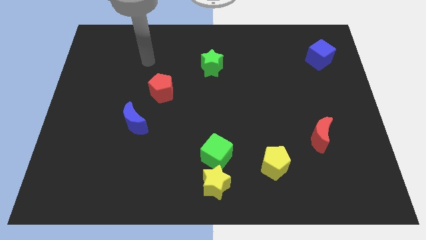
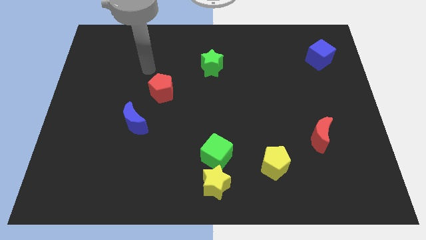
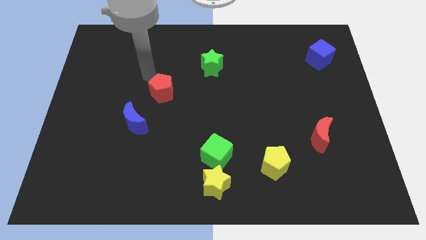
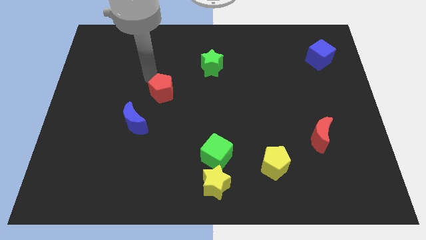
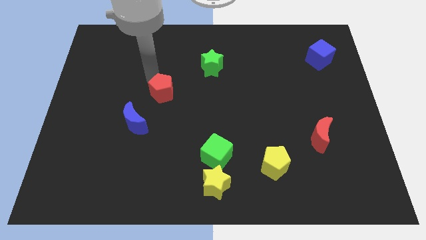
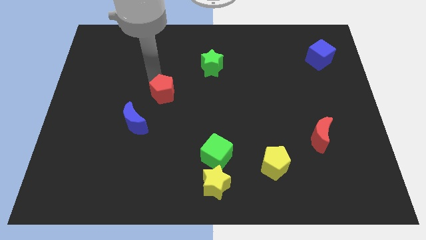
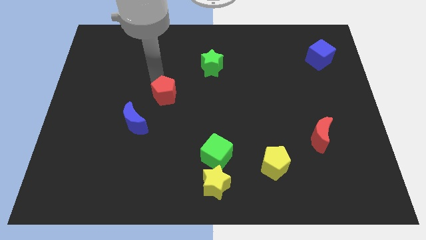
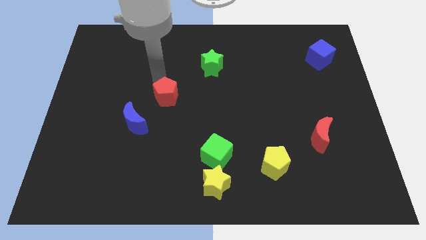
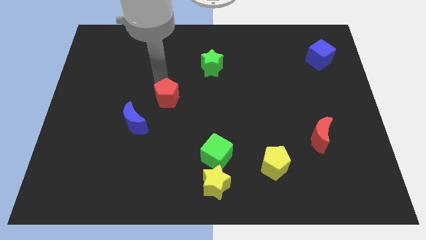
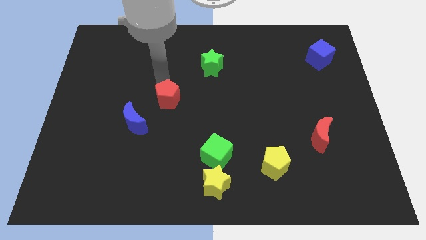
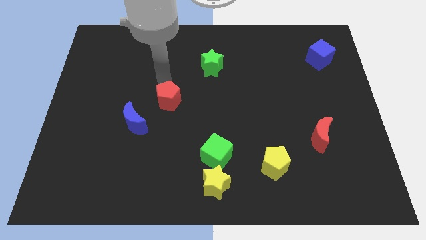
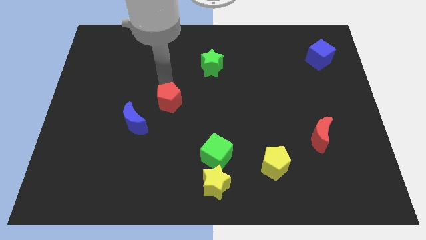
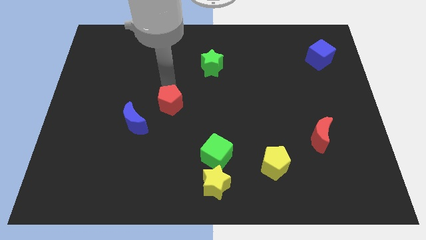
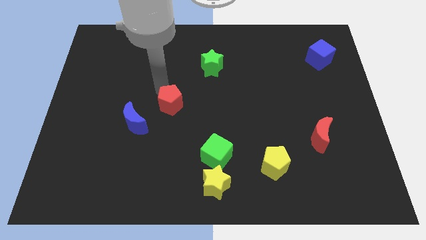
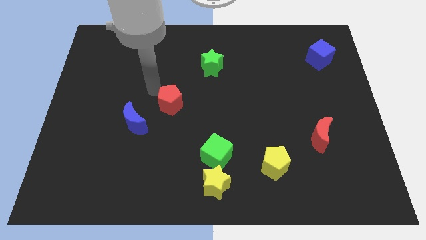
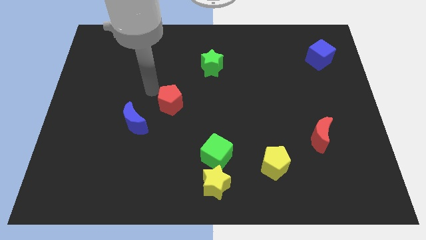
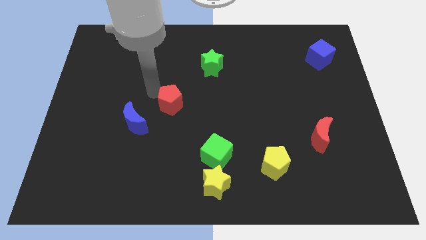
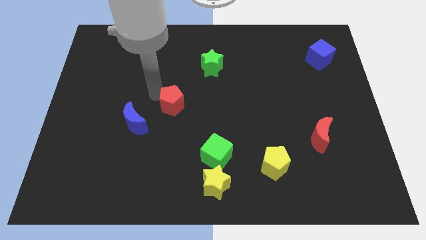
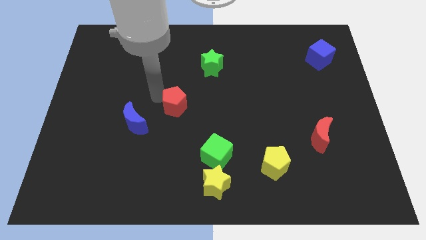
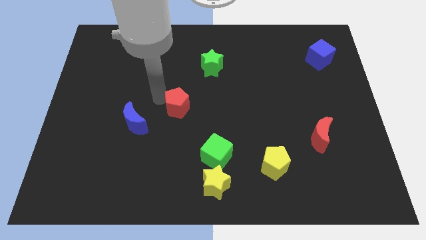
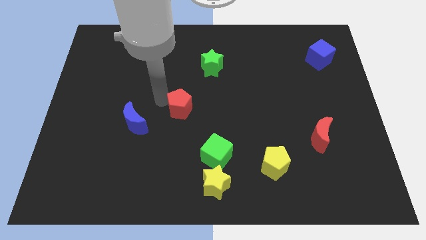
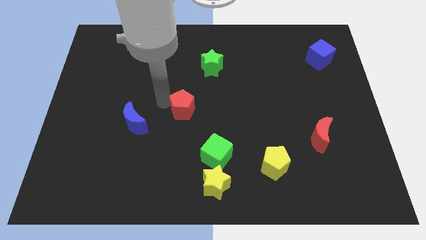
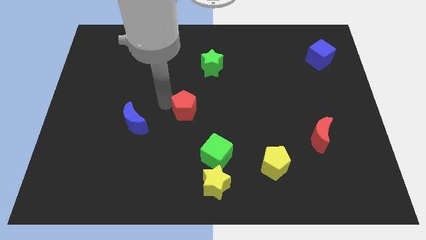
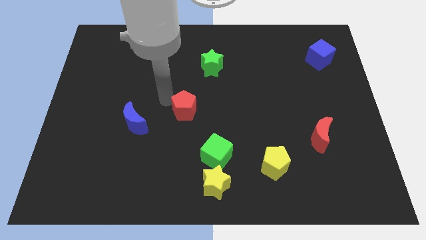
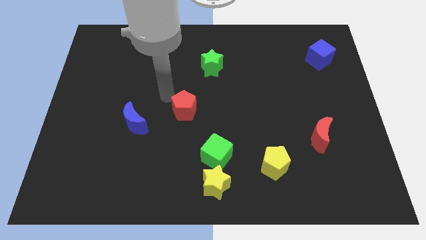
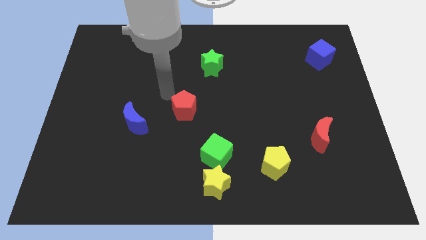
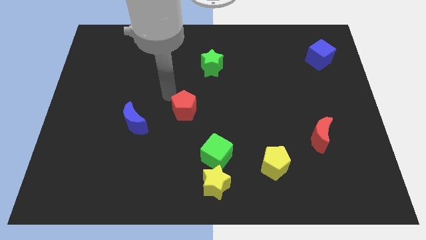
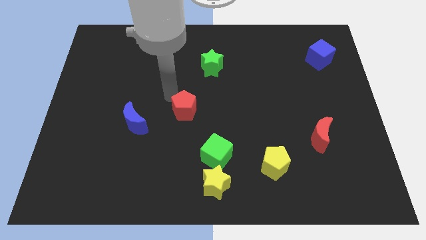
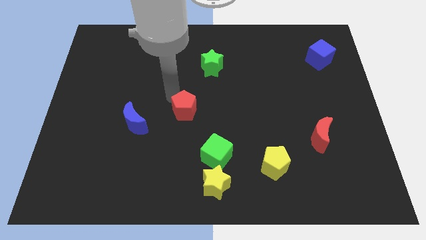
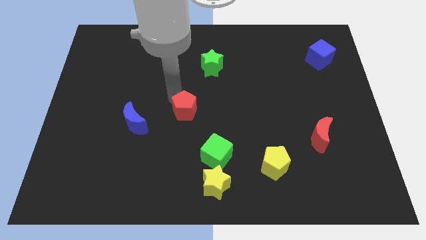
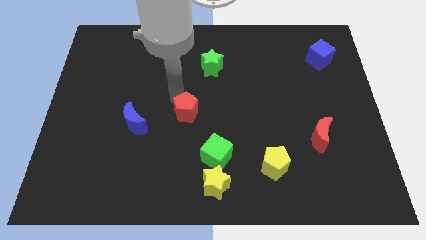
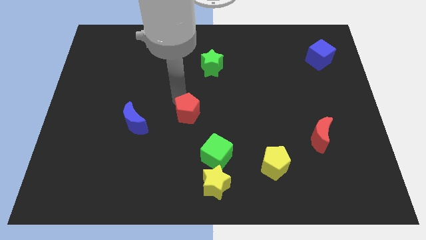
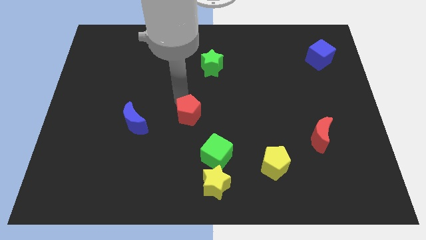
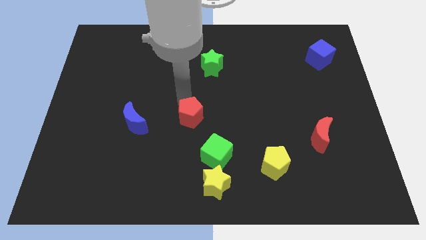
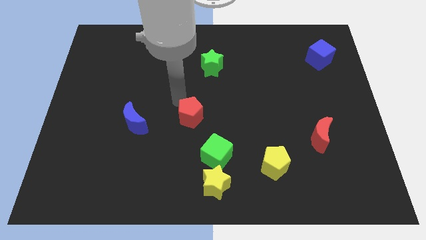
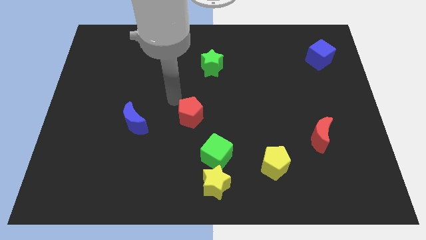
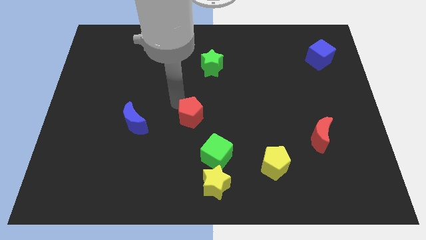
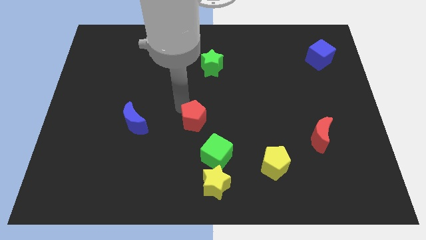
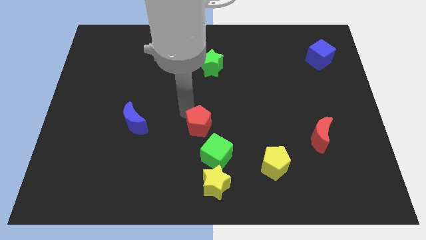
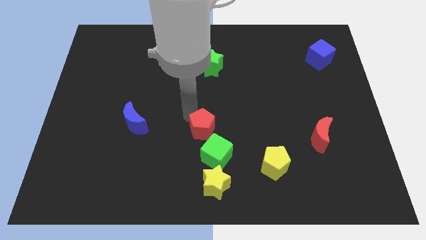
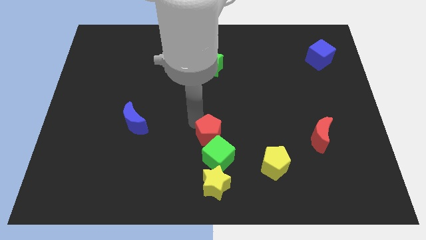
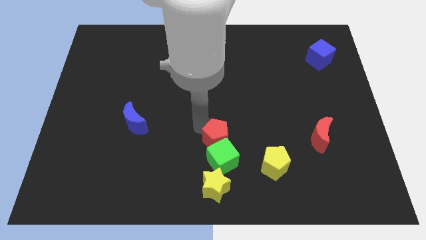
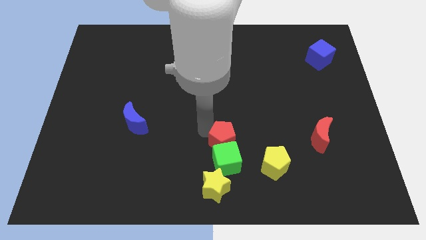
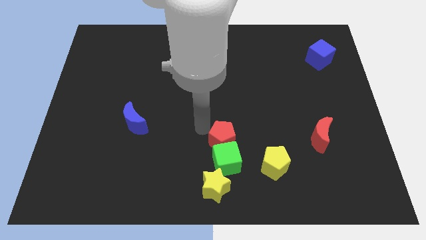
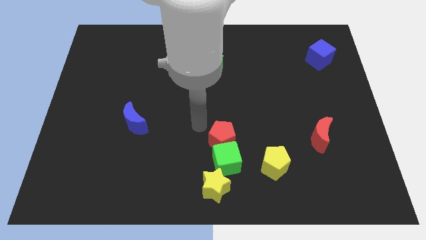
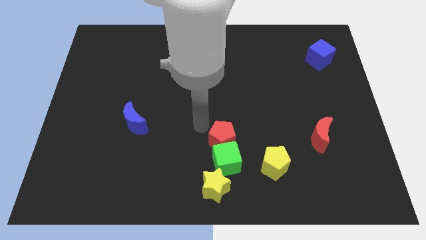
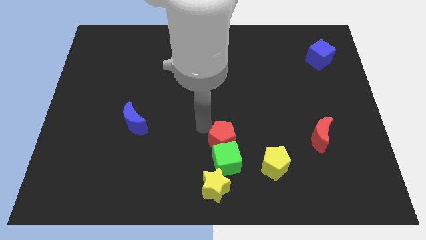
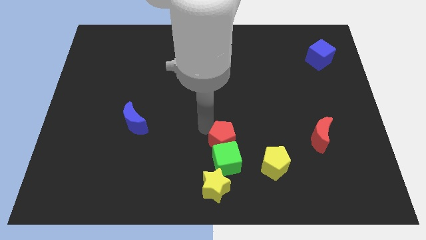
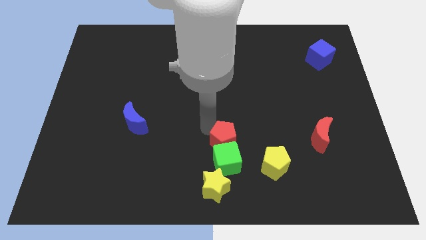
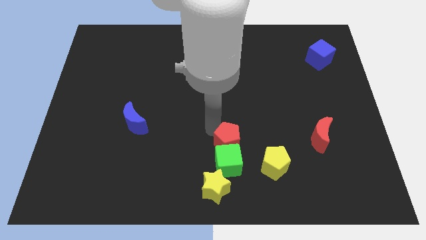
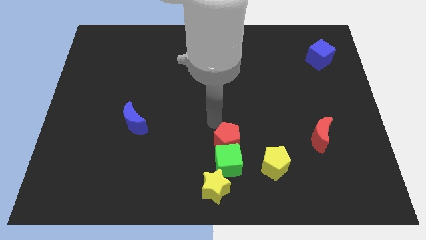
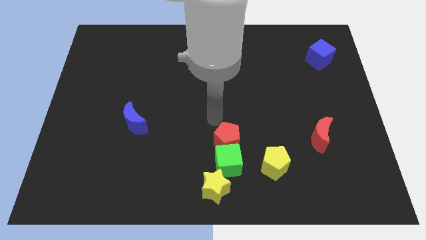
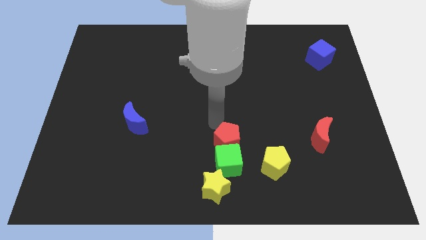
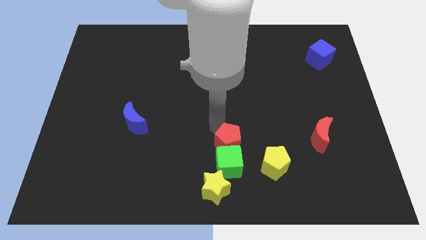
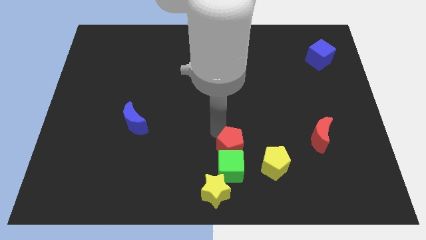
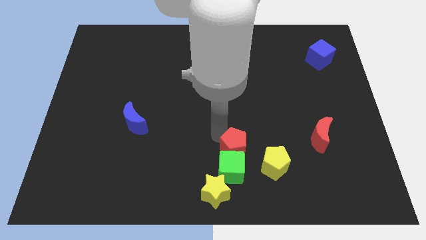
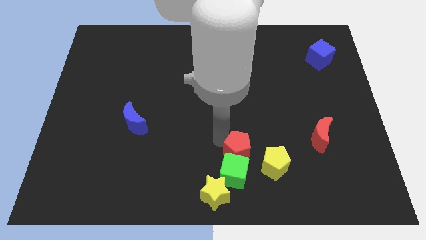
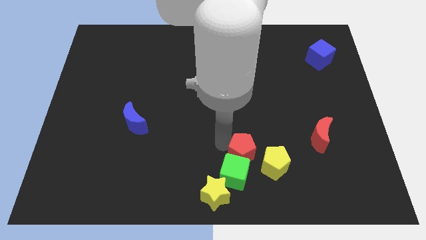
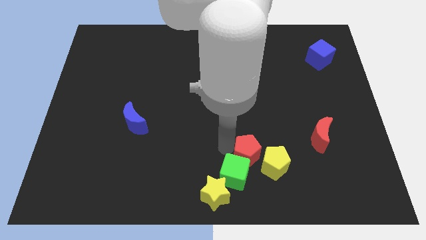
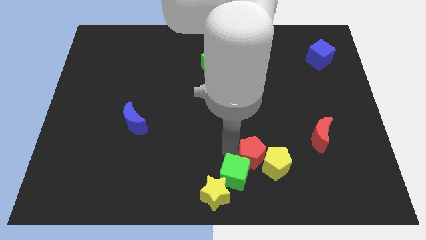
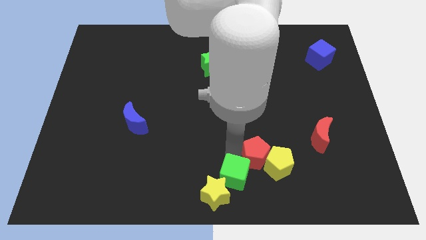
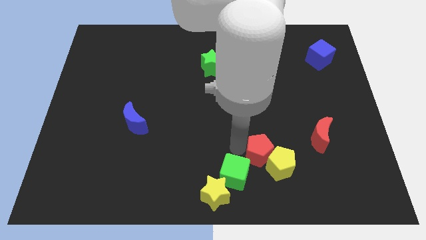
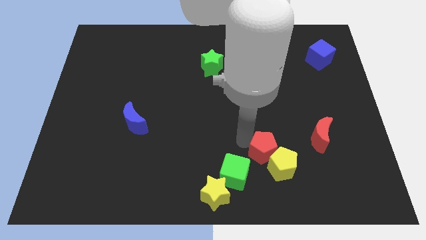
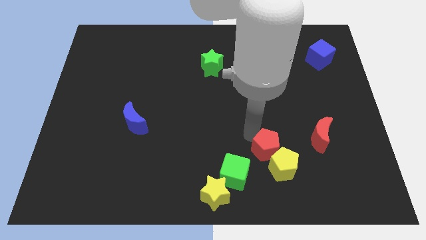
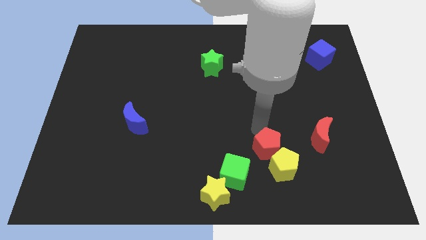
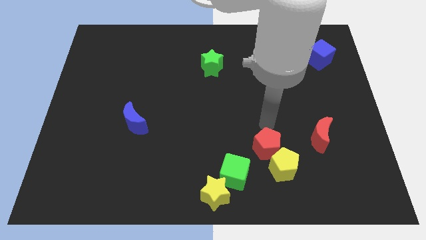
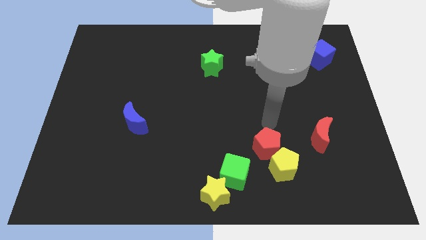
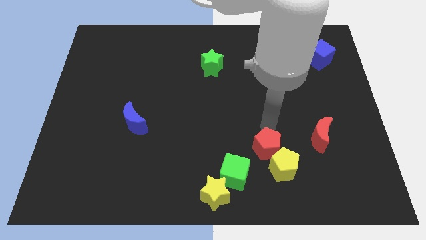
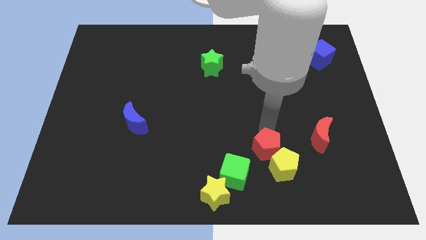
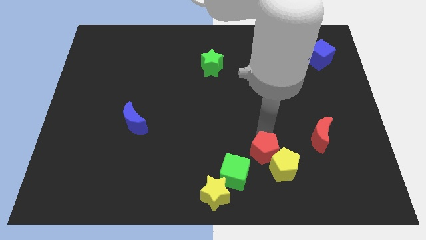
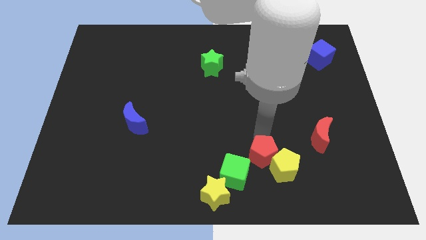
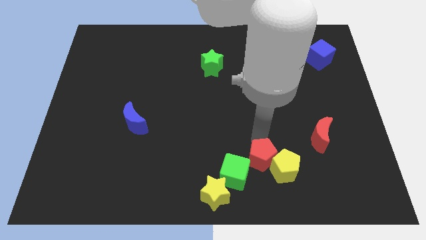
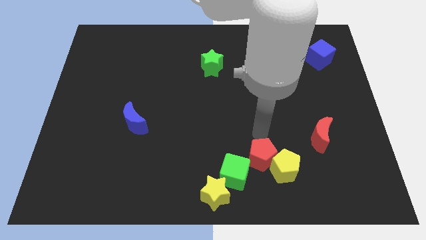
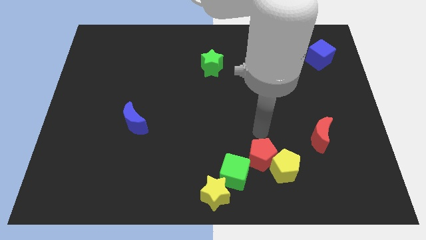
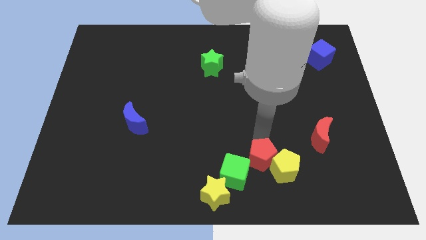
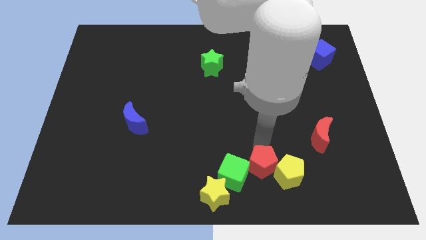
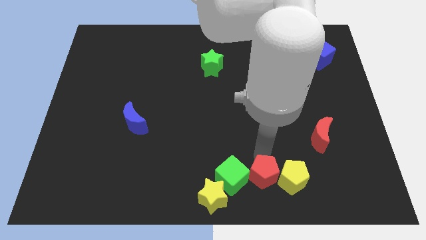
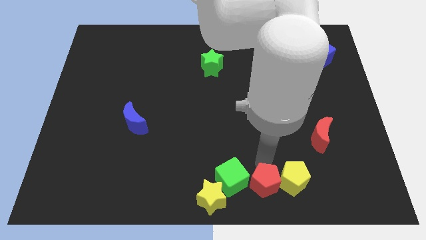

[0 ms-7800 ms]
push the red pentagon diagonally down and to the right of the green cube

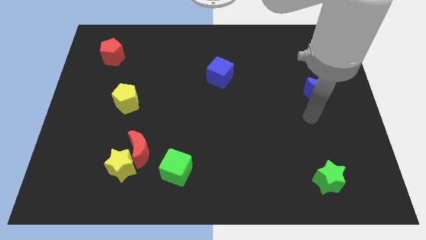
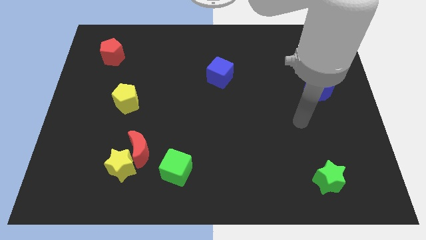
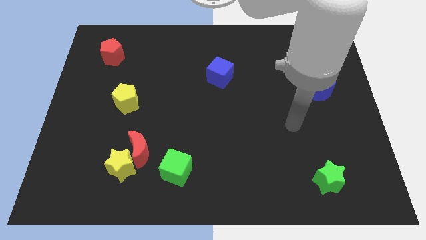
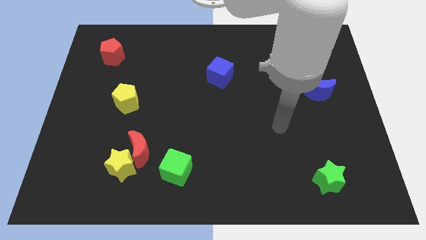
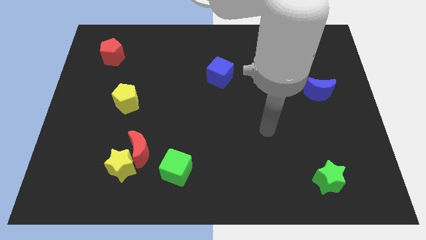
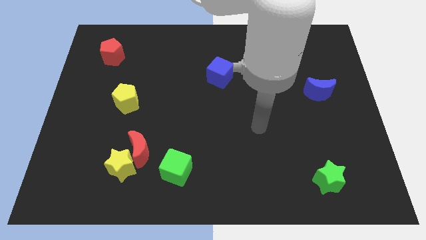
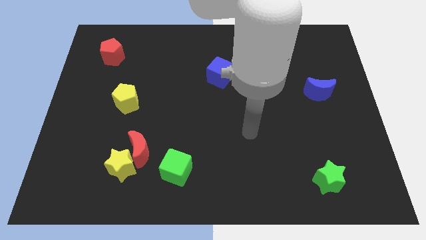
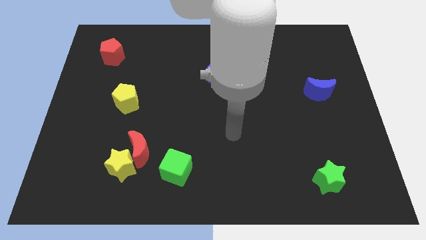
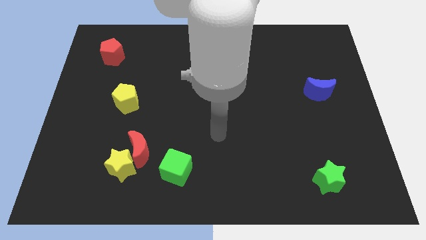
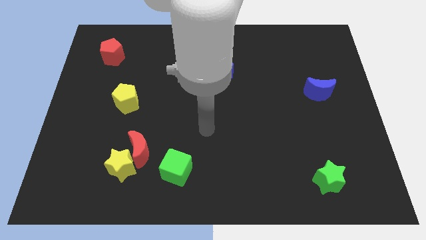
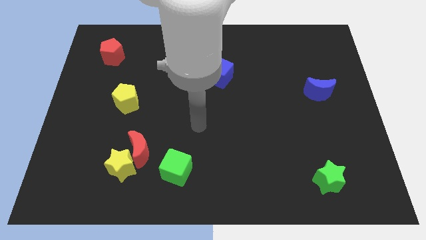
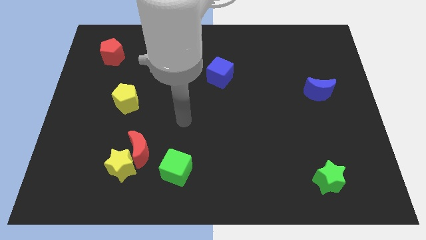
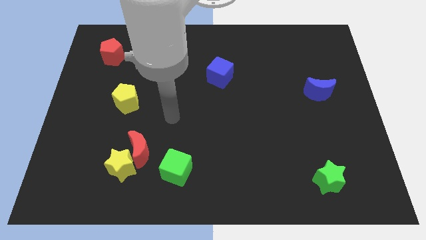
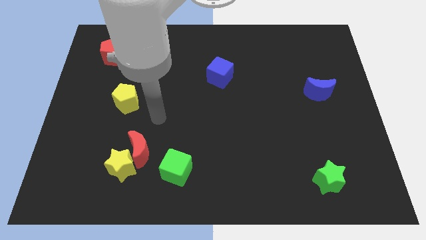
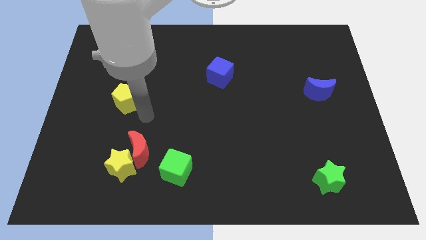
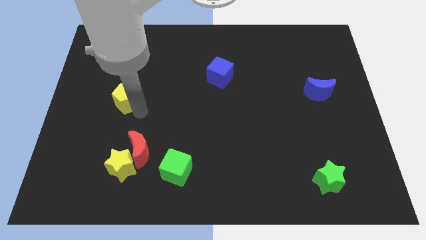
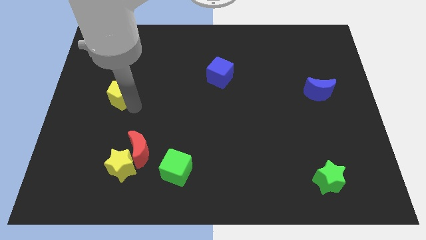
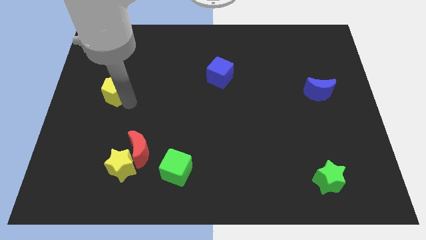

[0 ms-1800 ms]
put the yellow pentagon to the bottom side of the red pentagon
